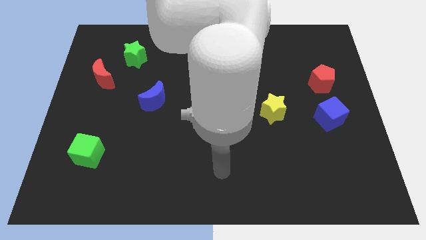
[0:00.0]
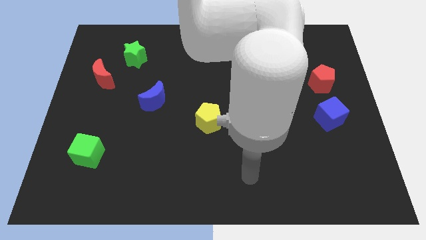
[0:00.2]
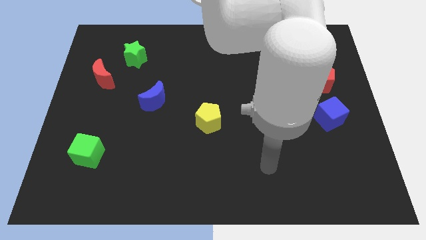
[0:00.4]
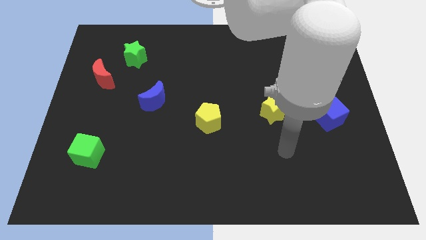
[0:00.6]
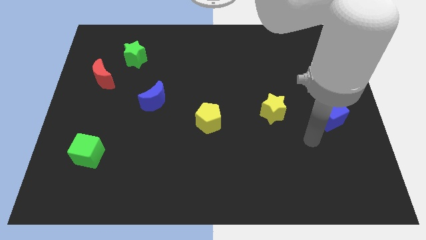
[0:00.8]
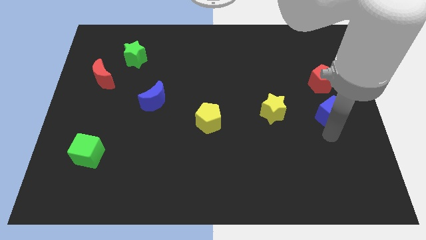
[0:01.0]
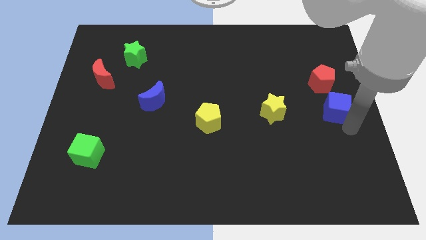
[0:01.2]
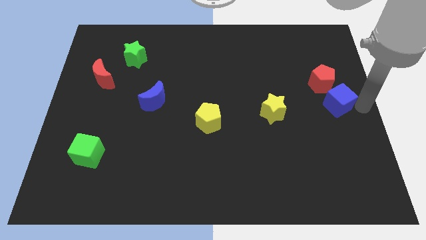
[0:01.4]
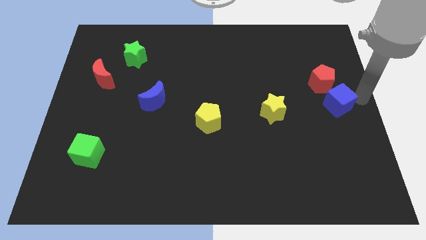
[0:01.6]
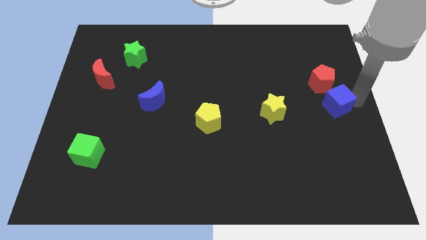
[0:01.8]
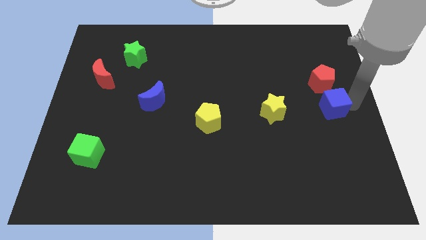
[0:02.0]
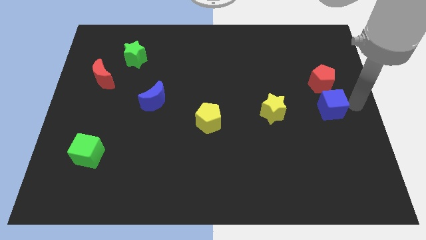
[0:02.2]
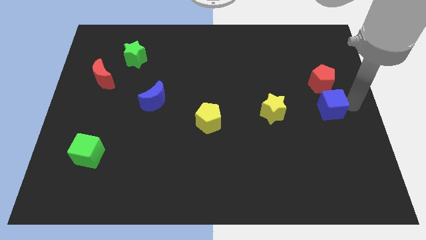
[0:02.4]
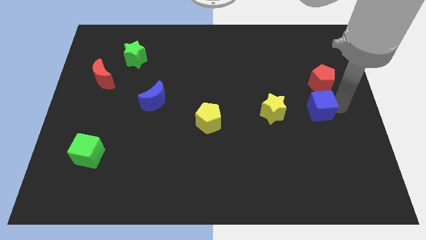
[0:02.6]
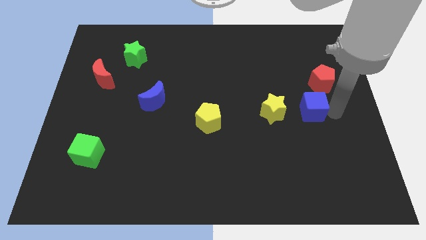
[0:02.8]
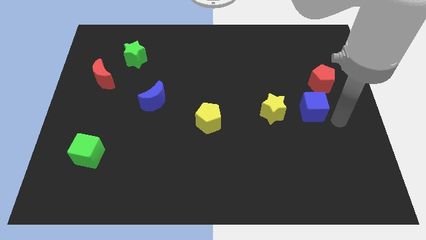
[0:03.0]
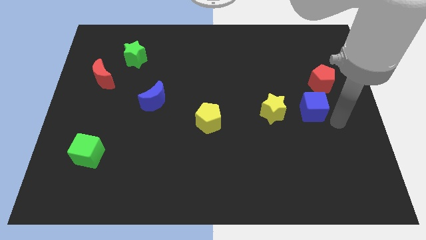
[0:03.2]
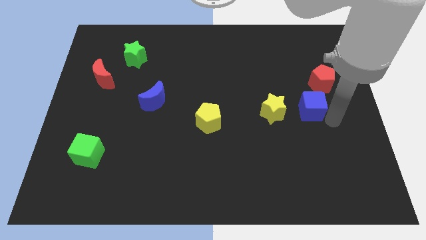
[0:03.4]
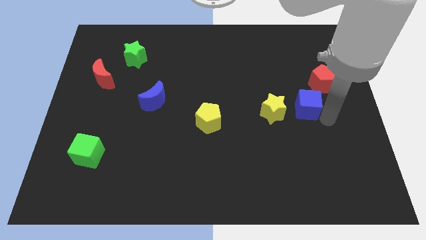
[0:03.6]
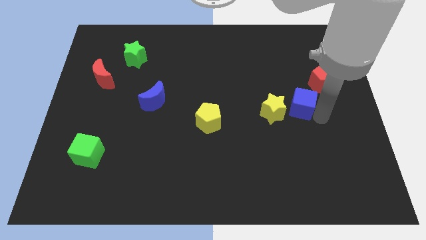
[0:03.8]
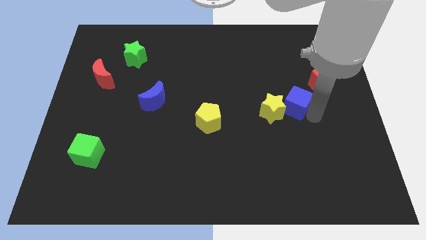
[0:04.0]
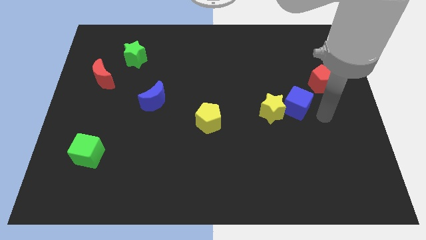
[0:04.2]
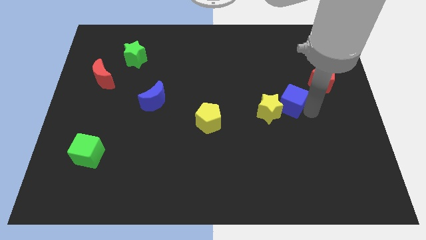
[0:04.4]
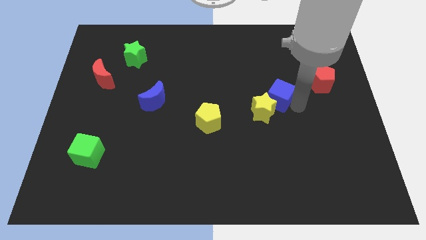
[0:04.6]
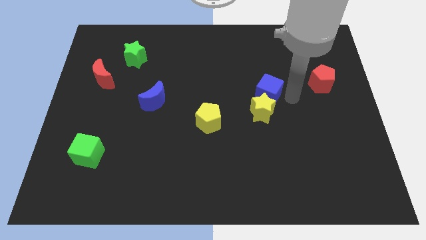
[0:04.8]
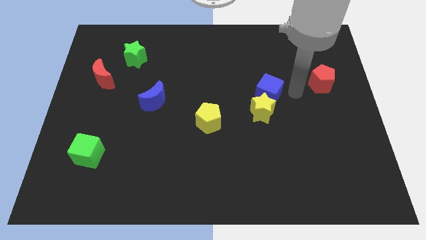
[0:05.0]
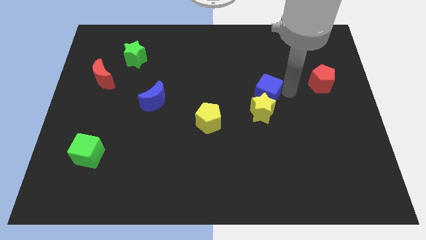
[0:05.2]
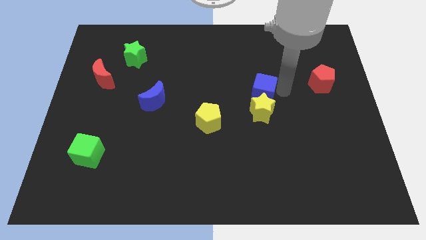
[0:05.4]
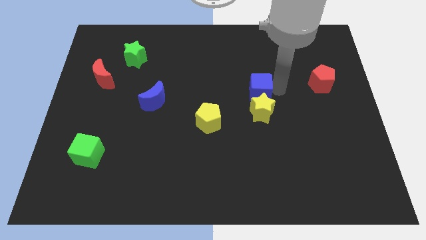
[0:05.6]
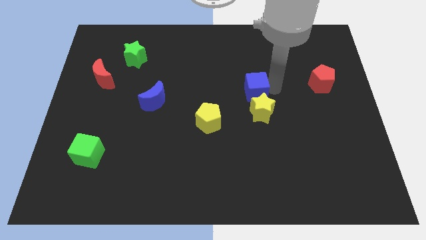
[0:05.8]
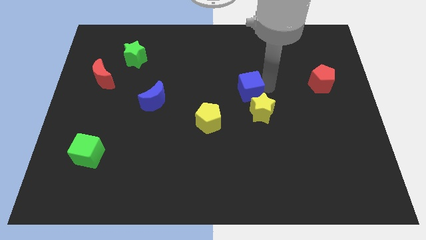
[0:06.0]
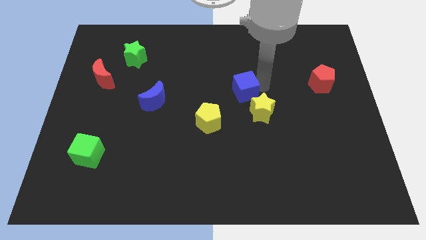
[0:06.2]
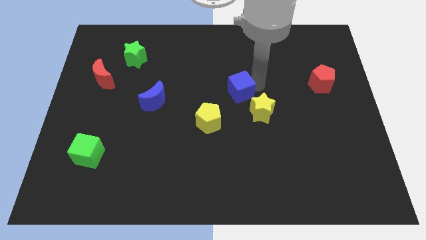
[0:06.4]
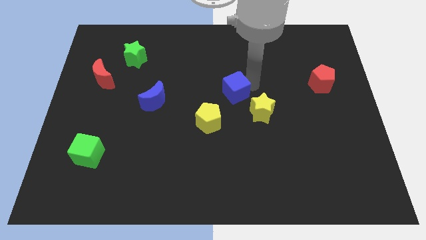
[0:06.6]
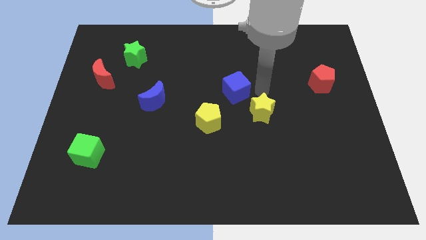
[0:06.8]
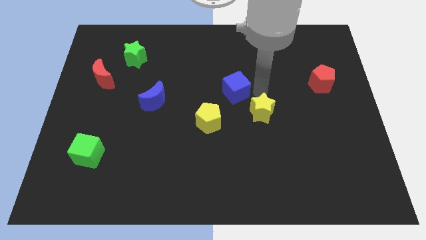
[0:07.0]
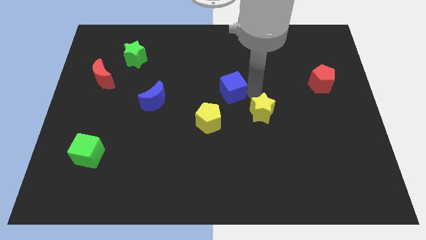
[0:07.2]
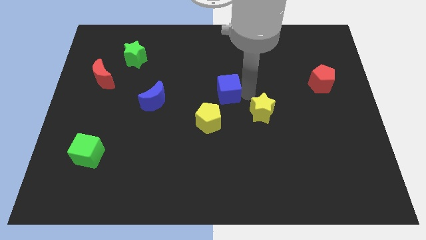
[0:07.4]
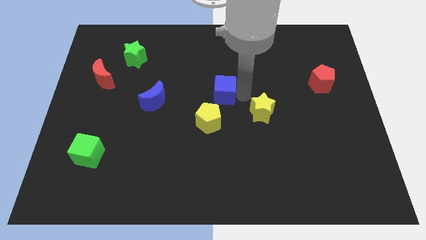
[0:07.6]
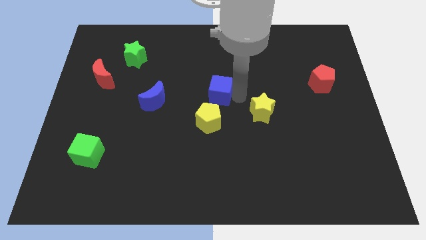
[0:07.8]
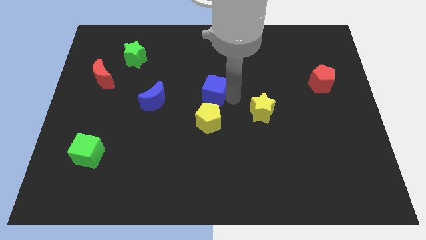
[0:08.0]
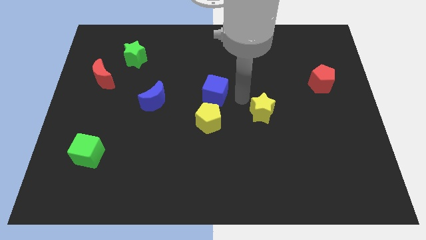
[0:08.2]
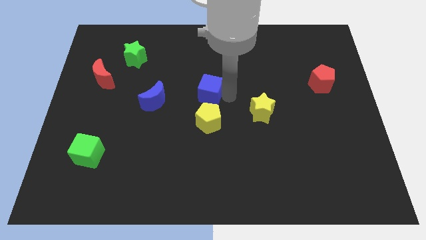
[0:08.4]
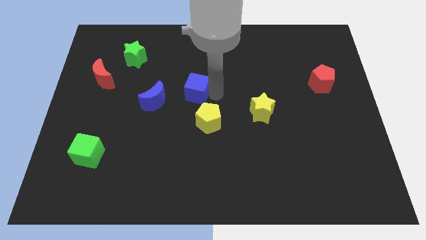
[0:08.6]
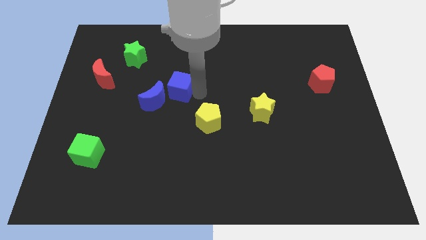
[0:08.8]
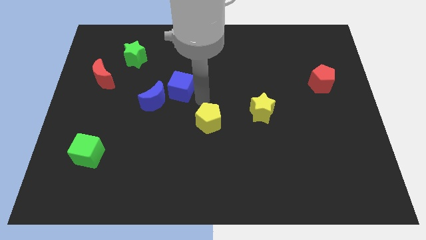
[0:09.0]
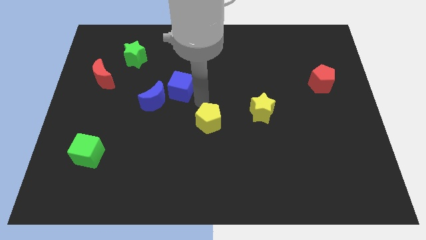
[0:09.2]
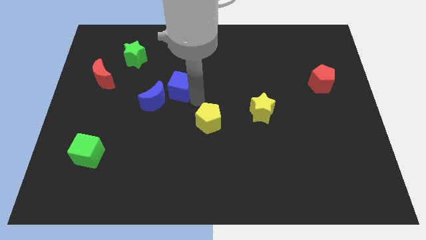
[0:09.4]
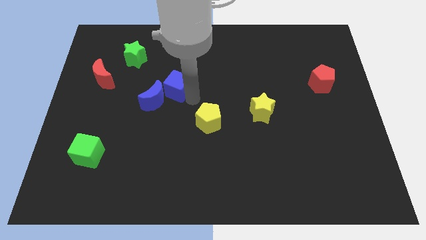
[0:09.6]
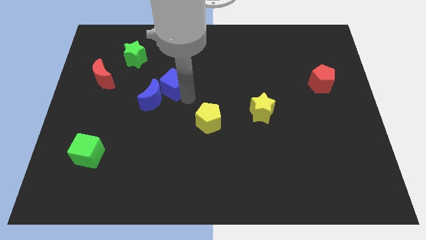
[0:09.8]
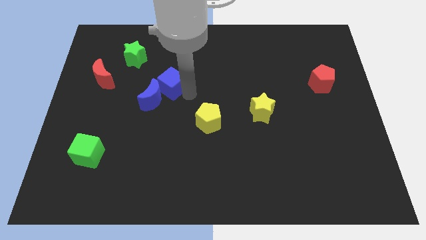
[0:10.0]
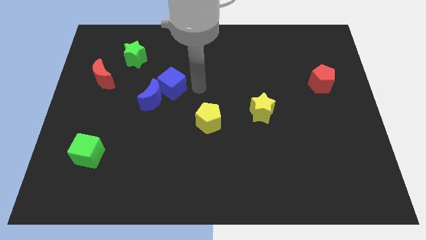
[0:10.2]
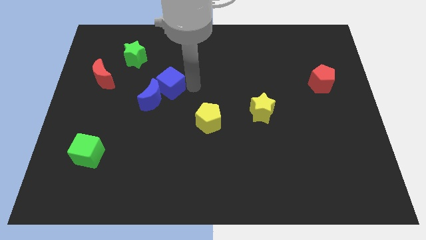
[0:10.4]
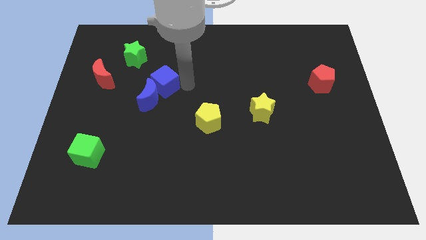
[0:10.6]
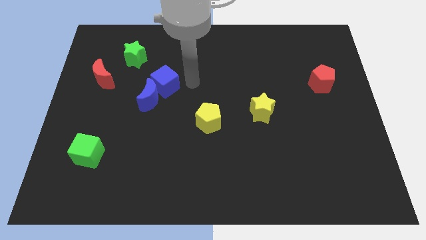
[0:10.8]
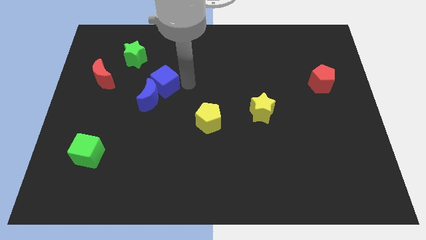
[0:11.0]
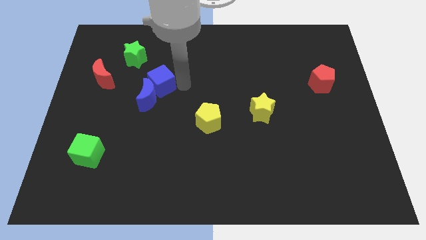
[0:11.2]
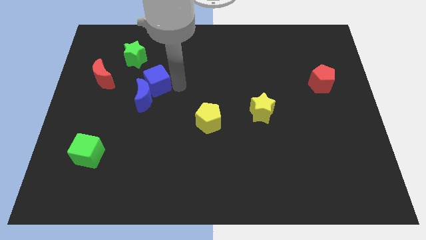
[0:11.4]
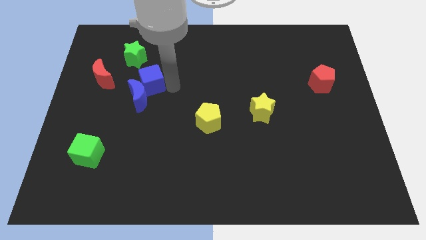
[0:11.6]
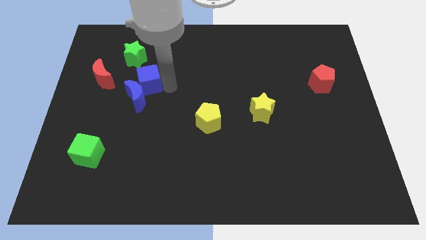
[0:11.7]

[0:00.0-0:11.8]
slide the blue cube below the green star

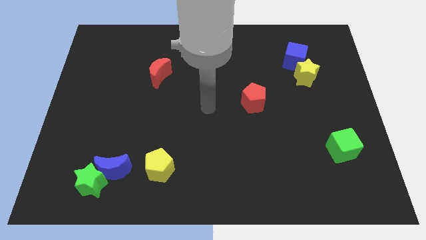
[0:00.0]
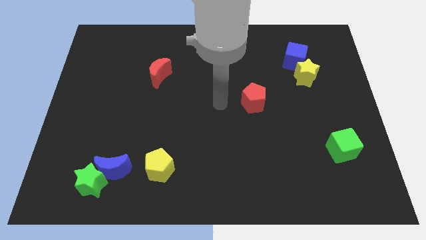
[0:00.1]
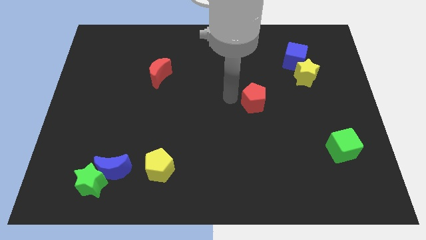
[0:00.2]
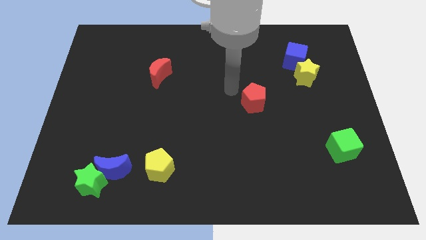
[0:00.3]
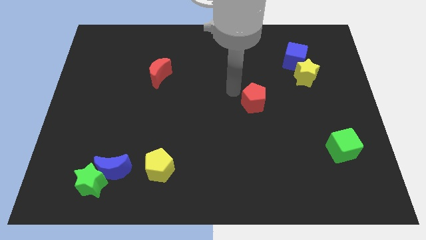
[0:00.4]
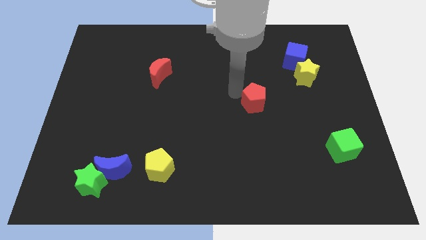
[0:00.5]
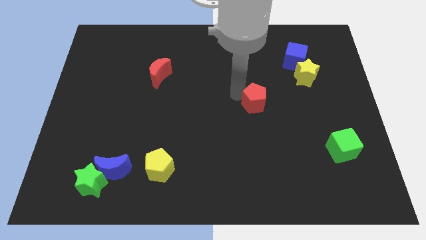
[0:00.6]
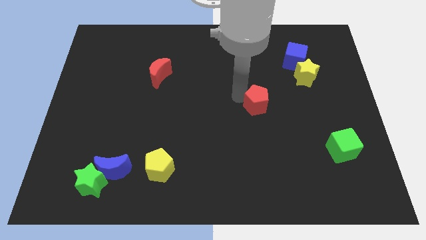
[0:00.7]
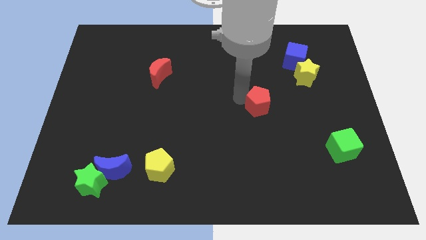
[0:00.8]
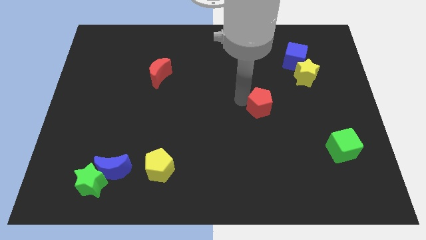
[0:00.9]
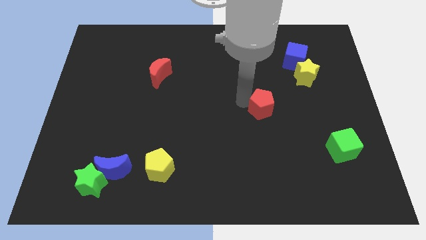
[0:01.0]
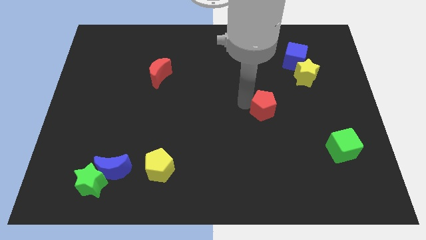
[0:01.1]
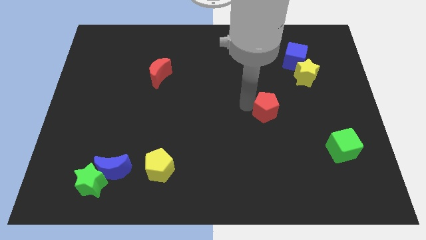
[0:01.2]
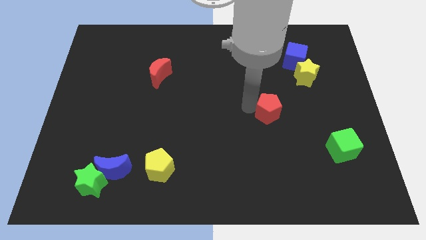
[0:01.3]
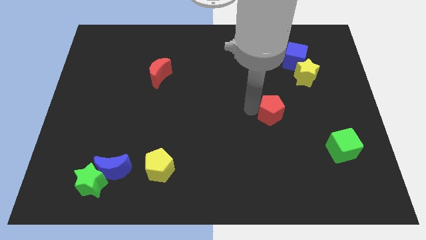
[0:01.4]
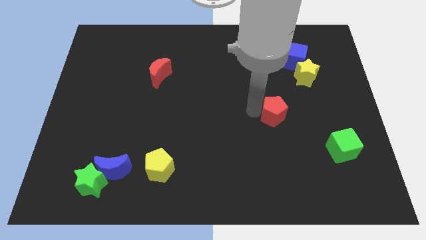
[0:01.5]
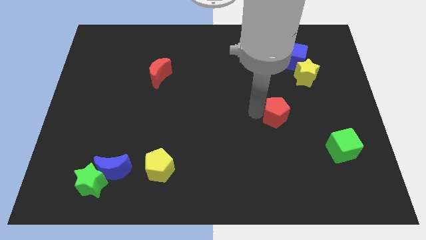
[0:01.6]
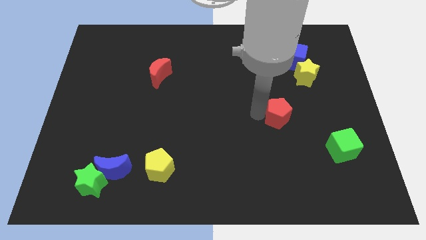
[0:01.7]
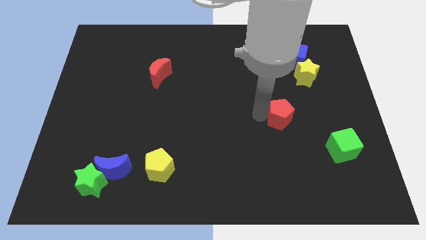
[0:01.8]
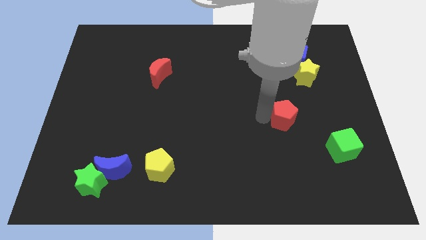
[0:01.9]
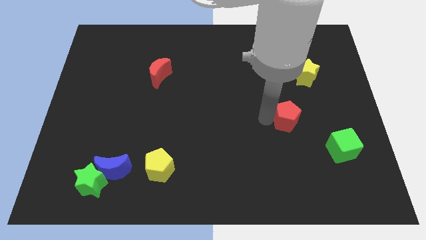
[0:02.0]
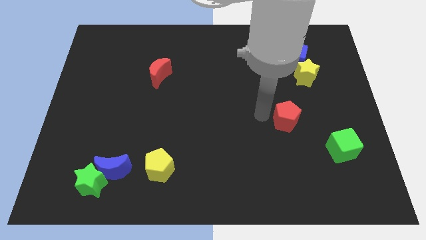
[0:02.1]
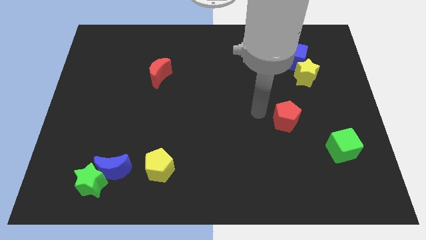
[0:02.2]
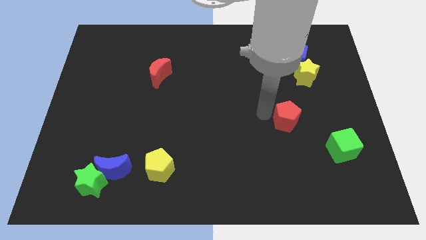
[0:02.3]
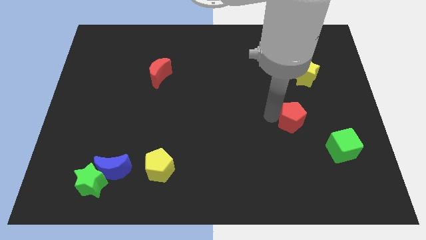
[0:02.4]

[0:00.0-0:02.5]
slide the red pentagon to the top left side of the green cube
